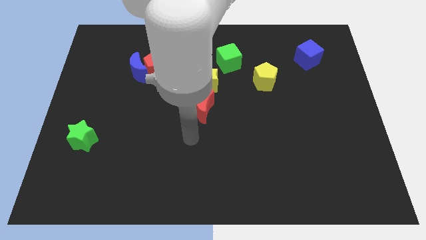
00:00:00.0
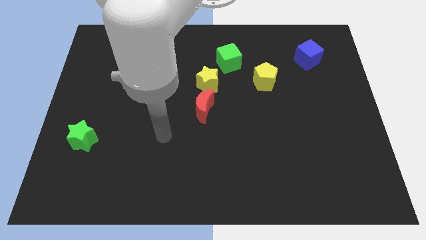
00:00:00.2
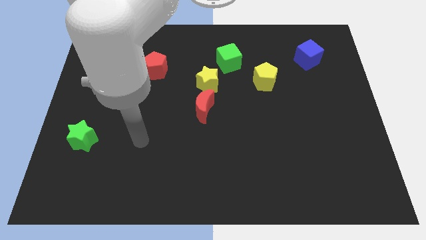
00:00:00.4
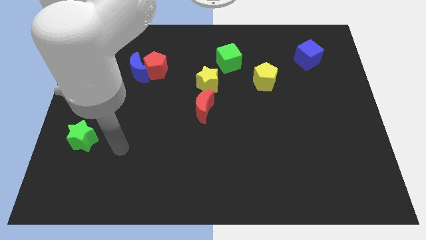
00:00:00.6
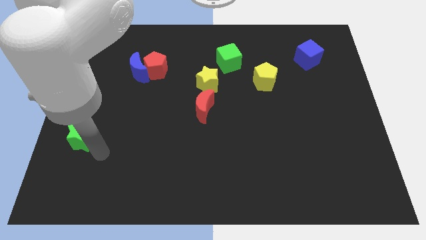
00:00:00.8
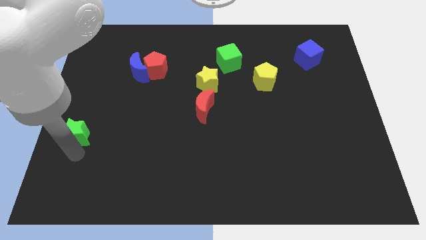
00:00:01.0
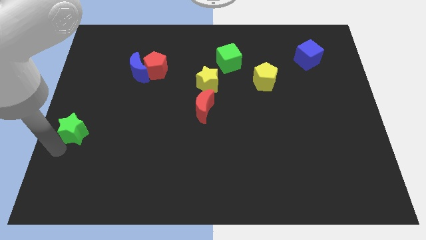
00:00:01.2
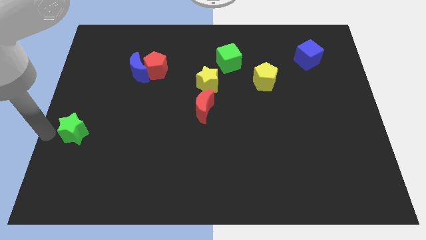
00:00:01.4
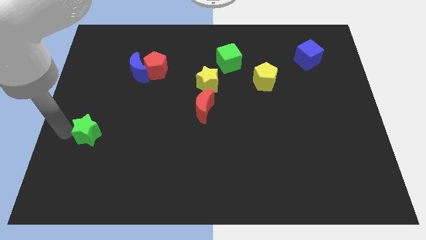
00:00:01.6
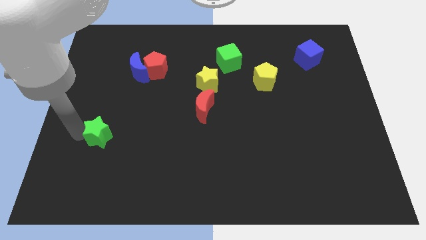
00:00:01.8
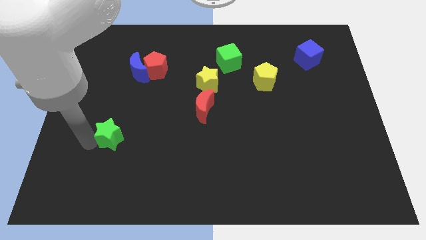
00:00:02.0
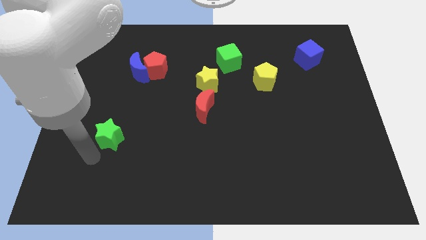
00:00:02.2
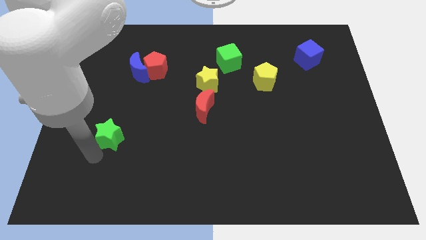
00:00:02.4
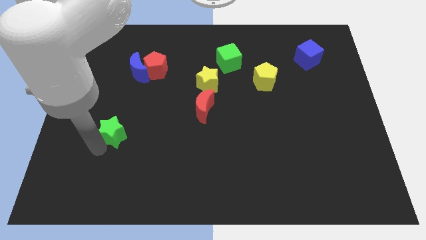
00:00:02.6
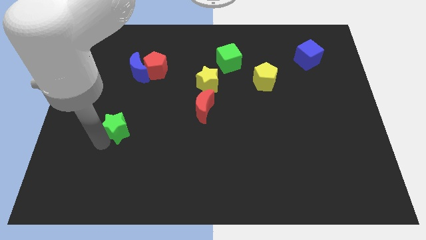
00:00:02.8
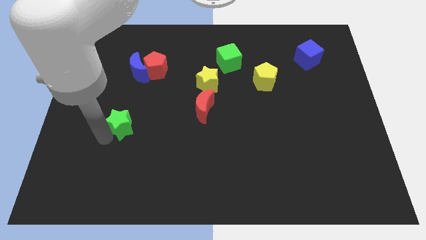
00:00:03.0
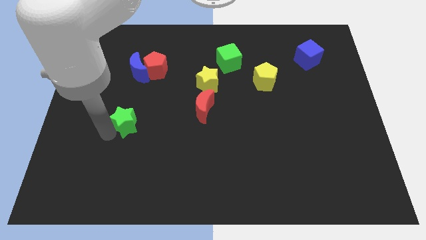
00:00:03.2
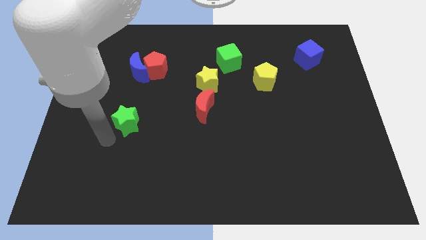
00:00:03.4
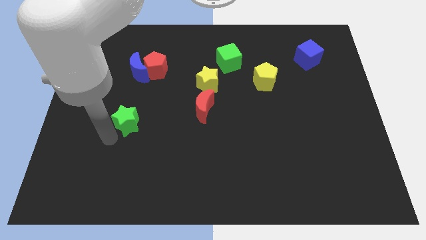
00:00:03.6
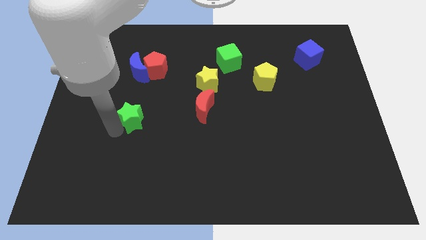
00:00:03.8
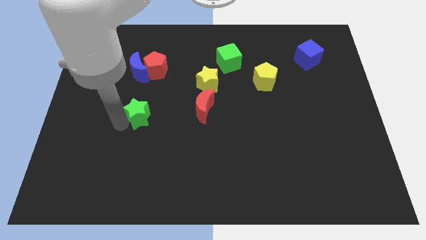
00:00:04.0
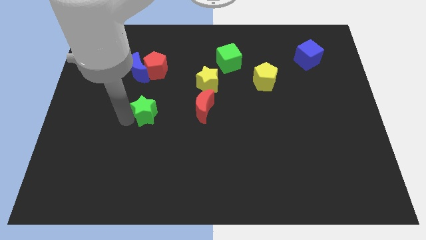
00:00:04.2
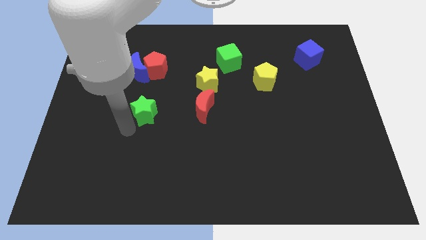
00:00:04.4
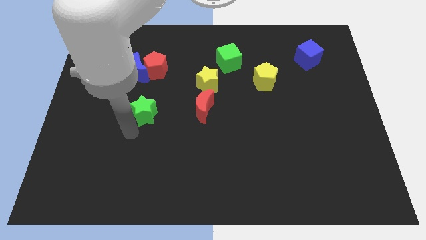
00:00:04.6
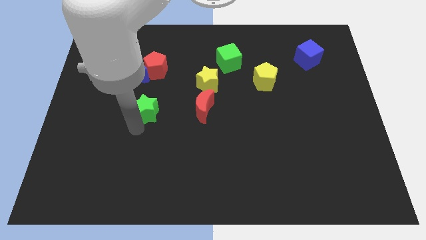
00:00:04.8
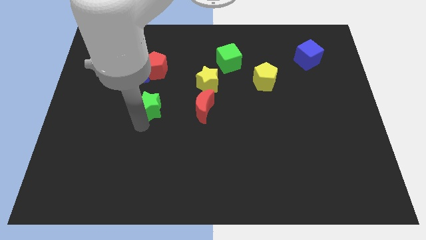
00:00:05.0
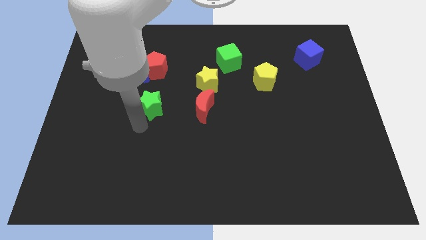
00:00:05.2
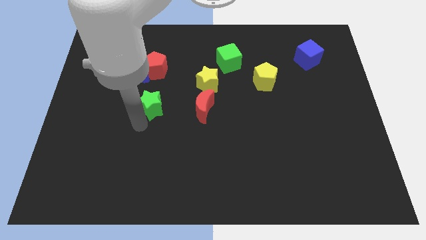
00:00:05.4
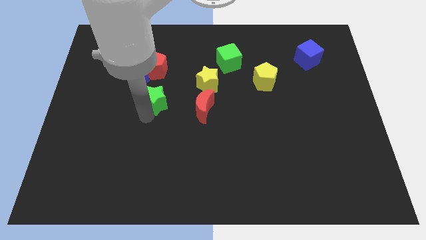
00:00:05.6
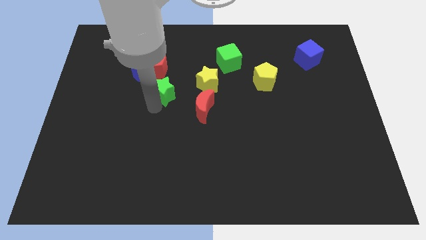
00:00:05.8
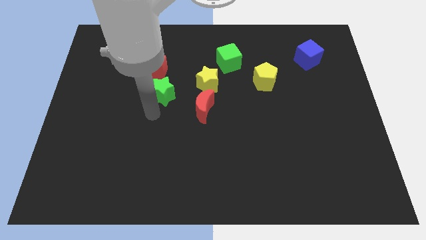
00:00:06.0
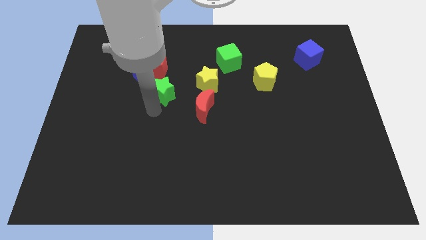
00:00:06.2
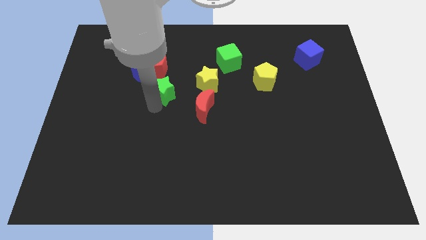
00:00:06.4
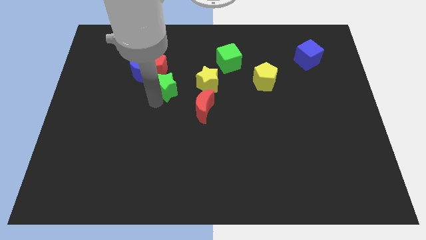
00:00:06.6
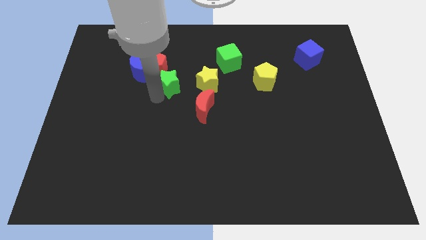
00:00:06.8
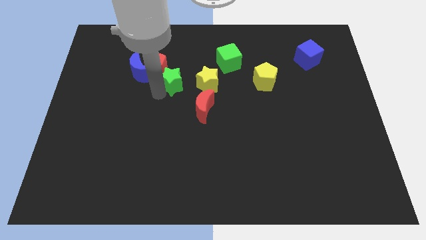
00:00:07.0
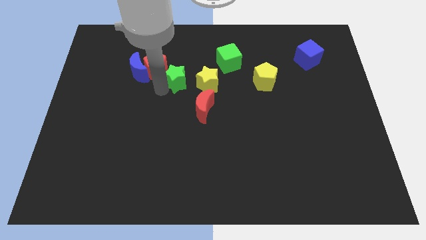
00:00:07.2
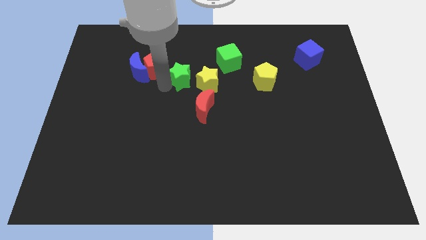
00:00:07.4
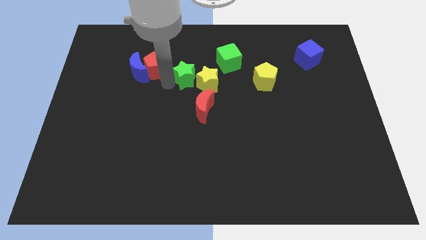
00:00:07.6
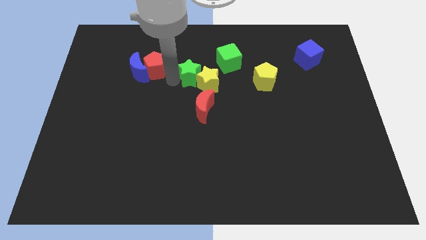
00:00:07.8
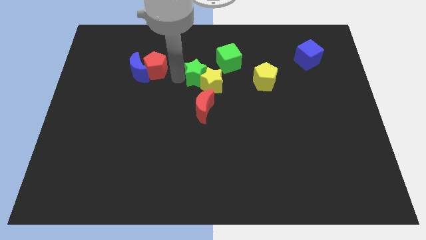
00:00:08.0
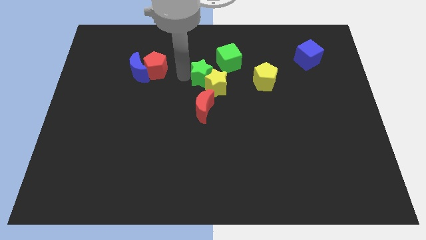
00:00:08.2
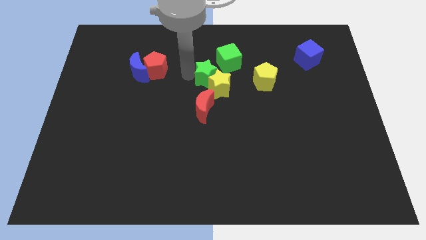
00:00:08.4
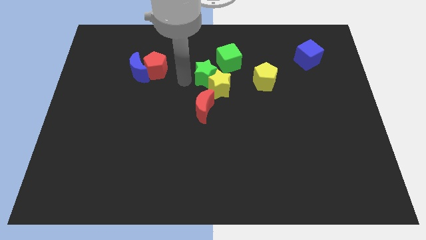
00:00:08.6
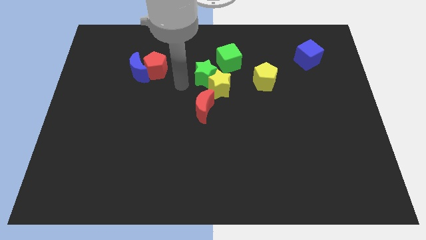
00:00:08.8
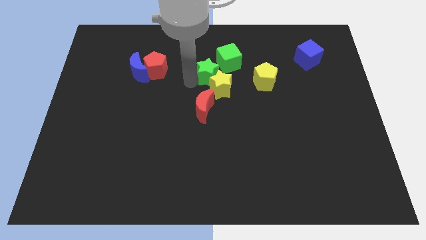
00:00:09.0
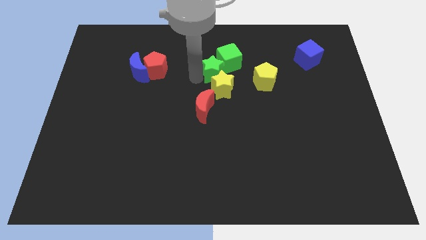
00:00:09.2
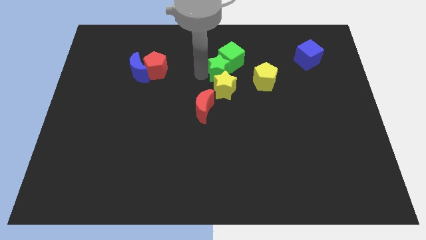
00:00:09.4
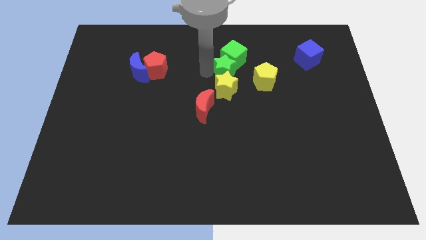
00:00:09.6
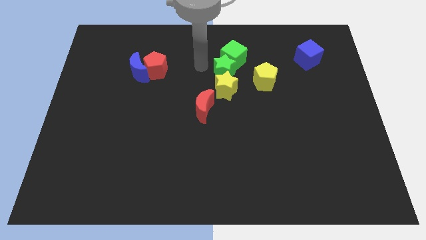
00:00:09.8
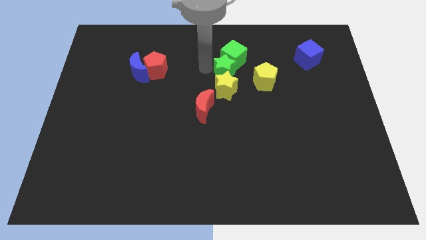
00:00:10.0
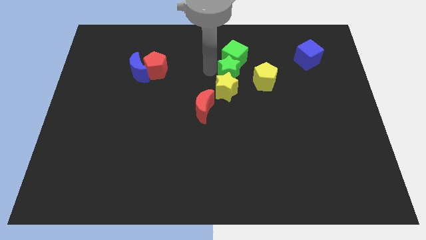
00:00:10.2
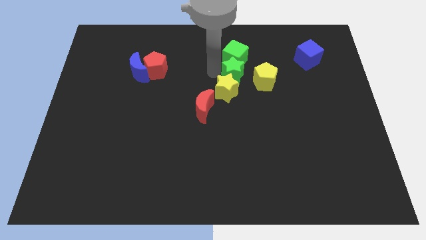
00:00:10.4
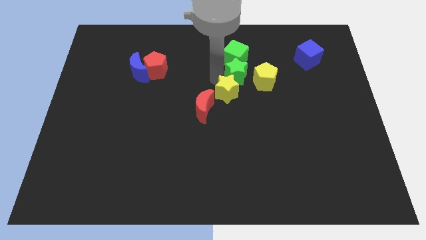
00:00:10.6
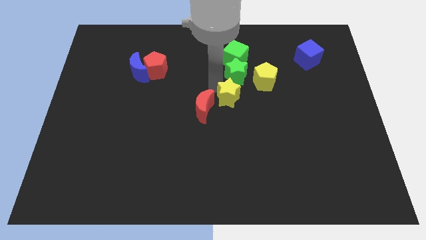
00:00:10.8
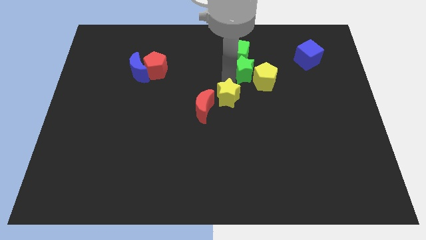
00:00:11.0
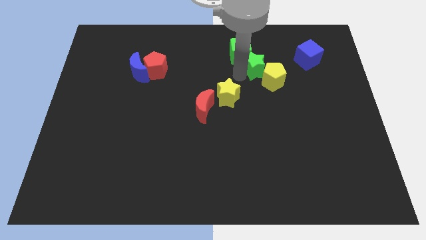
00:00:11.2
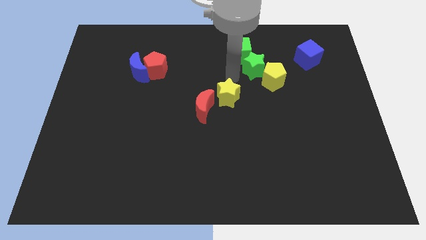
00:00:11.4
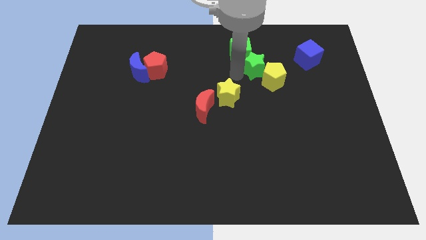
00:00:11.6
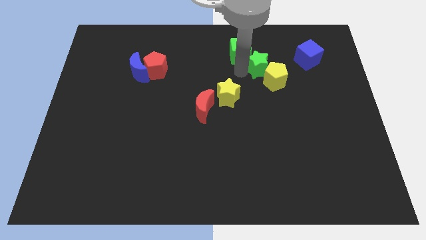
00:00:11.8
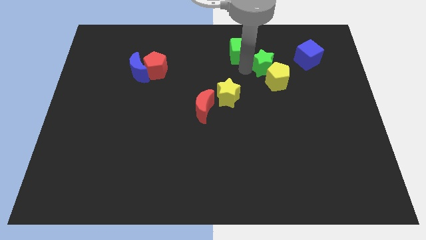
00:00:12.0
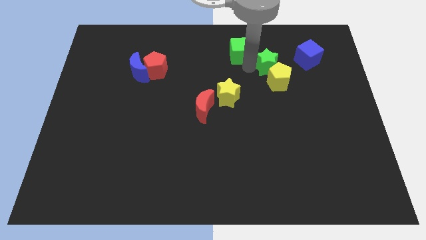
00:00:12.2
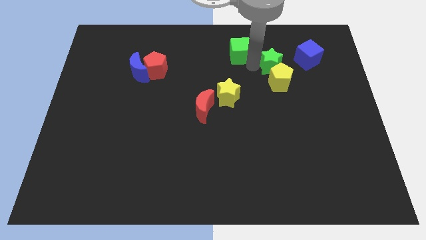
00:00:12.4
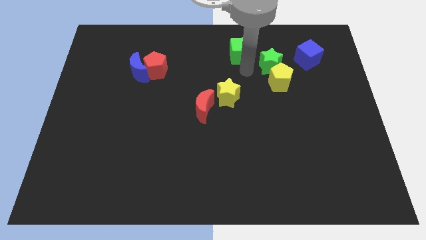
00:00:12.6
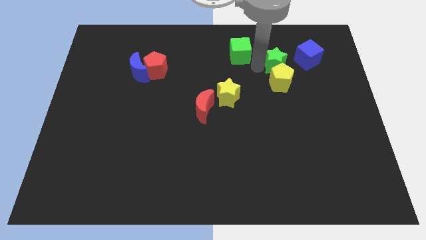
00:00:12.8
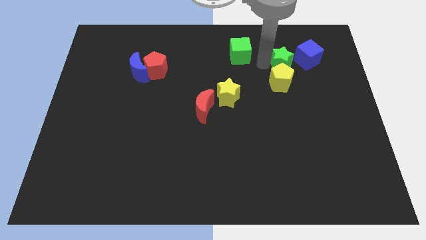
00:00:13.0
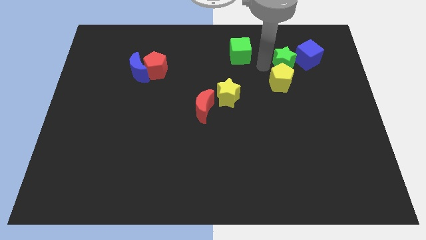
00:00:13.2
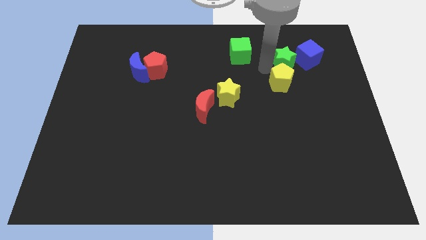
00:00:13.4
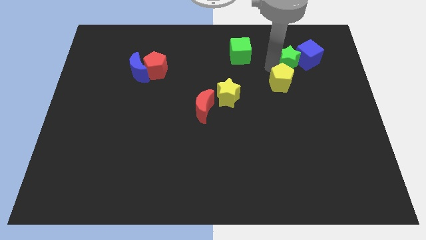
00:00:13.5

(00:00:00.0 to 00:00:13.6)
move the green star towards the blue cube

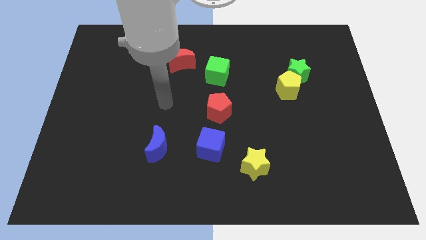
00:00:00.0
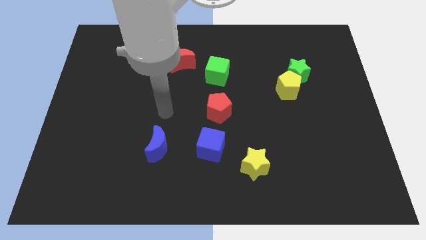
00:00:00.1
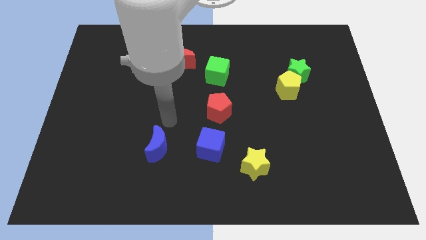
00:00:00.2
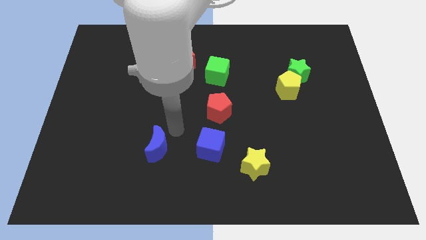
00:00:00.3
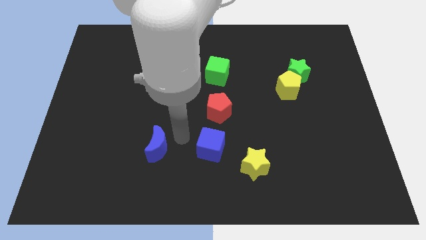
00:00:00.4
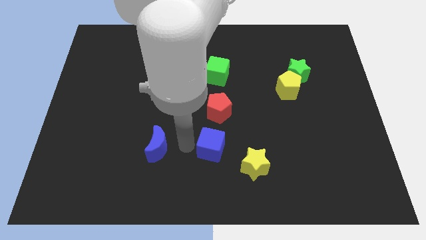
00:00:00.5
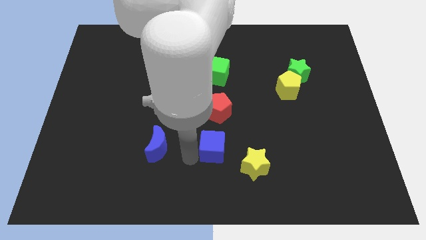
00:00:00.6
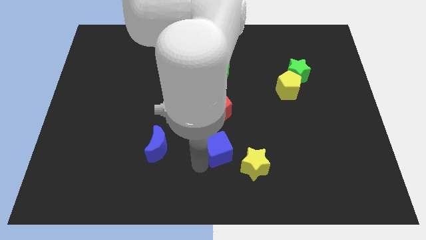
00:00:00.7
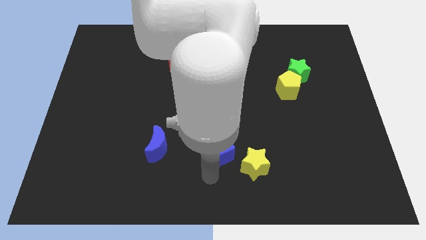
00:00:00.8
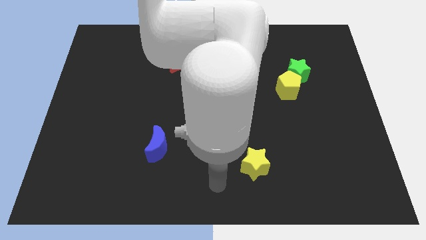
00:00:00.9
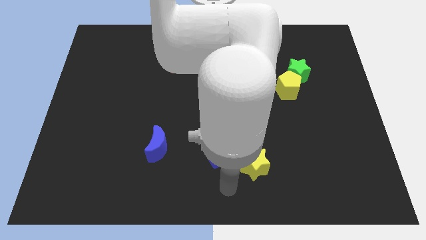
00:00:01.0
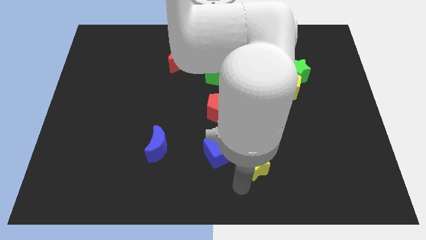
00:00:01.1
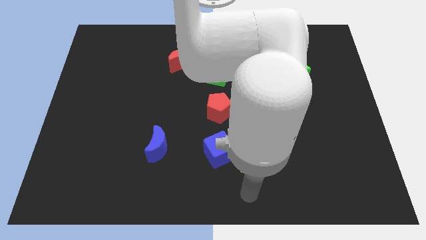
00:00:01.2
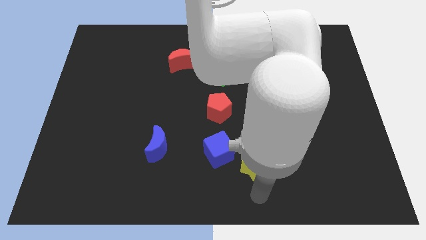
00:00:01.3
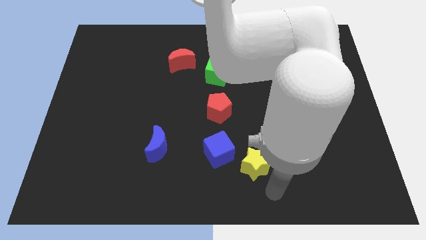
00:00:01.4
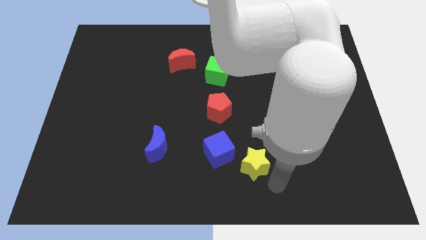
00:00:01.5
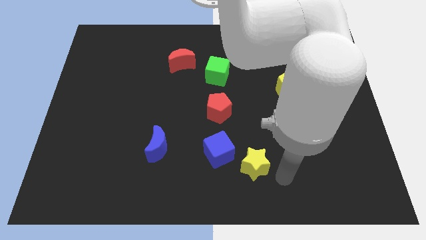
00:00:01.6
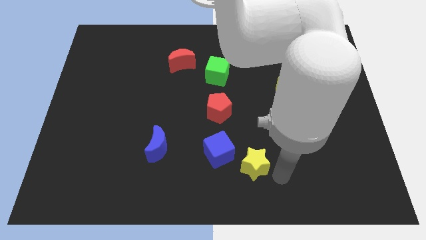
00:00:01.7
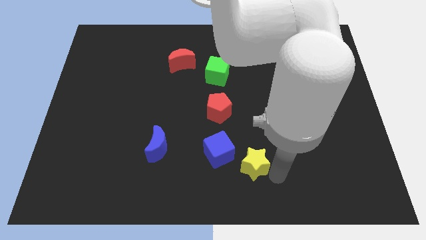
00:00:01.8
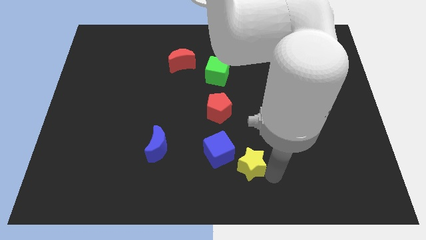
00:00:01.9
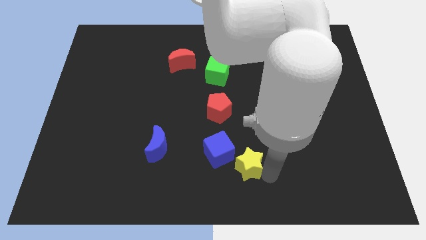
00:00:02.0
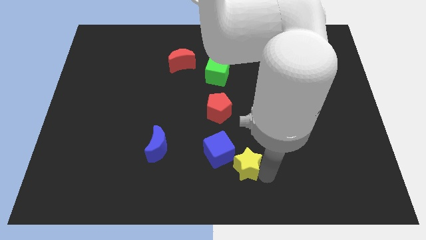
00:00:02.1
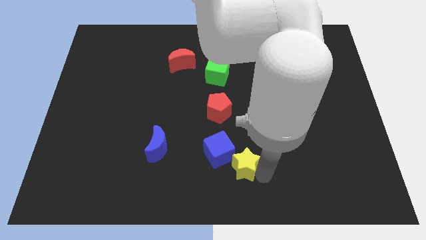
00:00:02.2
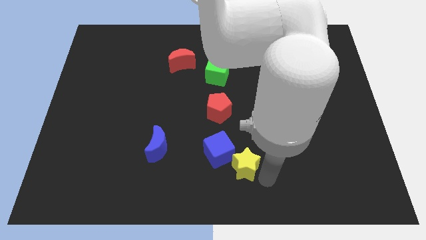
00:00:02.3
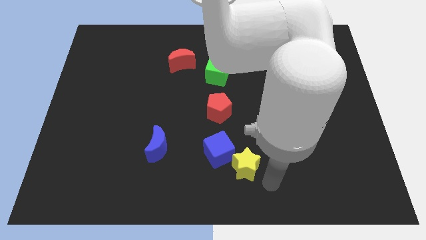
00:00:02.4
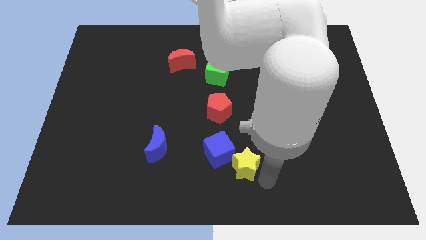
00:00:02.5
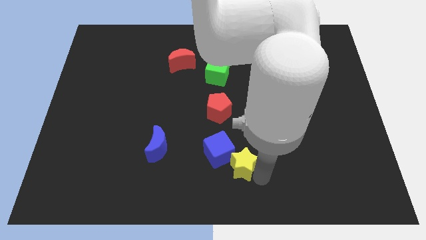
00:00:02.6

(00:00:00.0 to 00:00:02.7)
move the yellow star close to the blue cube
